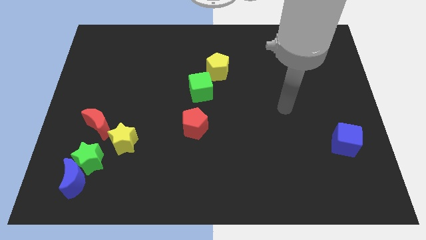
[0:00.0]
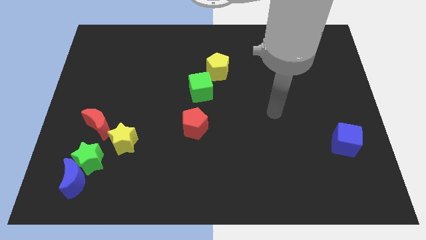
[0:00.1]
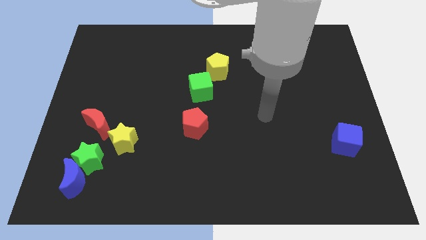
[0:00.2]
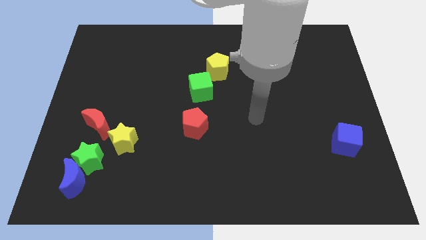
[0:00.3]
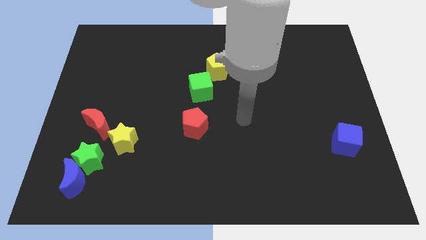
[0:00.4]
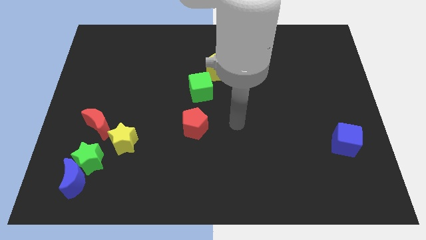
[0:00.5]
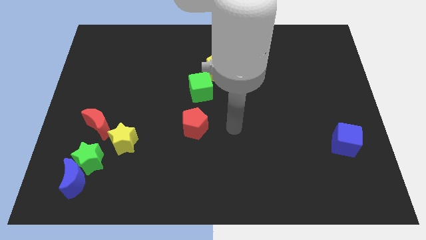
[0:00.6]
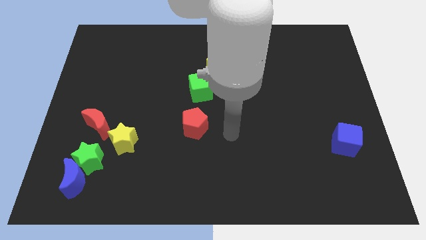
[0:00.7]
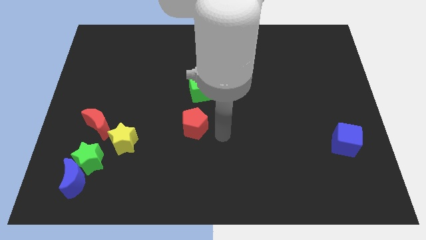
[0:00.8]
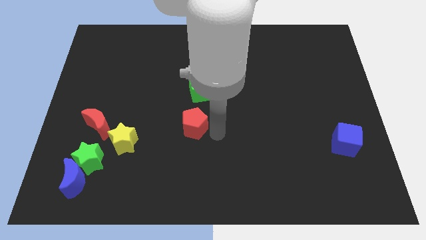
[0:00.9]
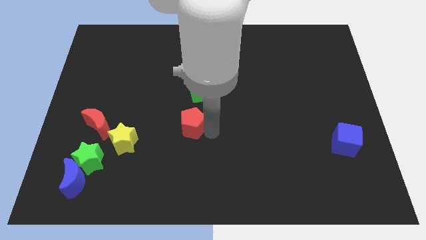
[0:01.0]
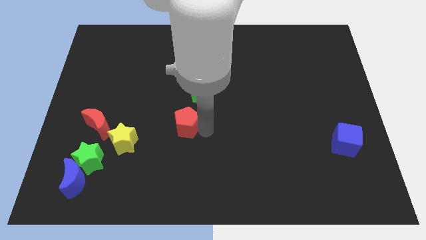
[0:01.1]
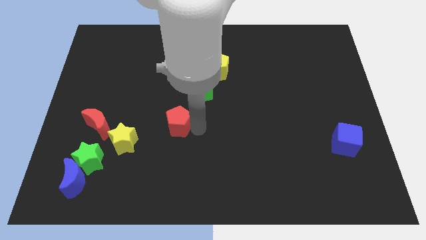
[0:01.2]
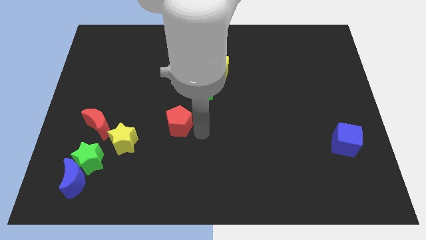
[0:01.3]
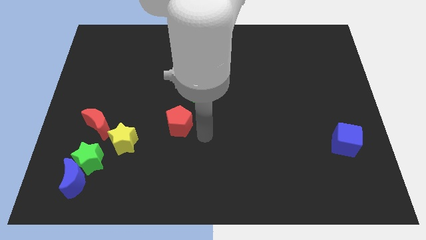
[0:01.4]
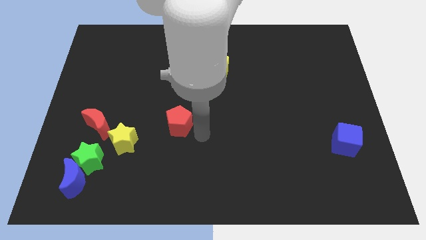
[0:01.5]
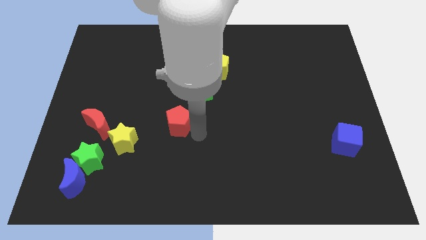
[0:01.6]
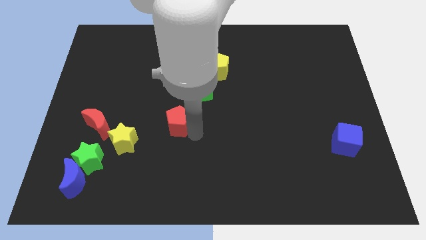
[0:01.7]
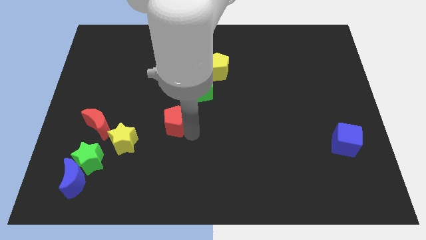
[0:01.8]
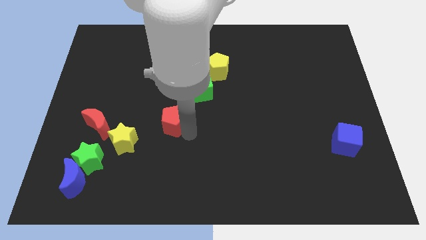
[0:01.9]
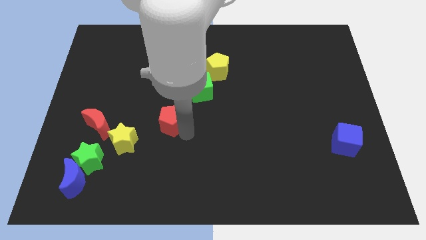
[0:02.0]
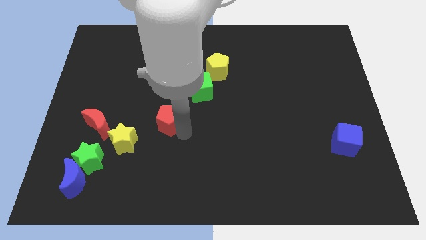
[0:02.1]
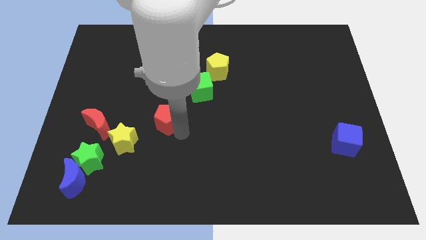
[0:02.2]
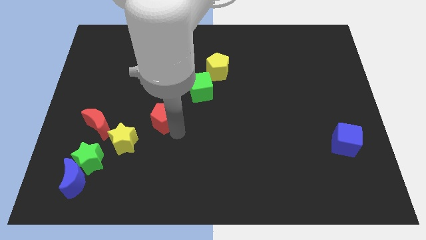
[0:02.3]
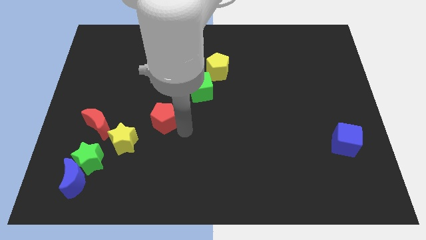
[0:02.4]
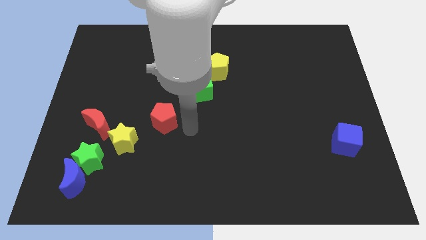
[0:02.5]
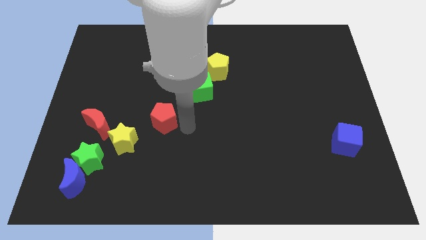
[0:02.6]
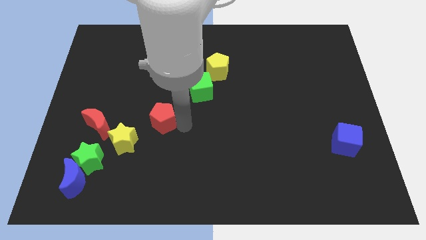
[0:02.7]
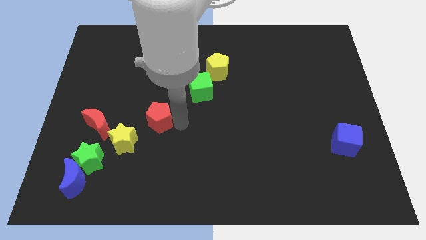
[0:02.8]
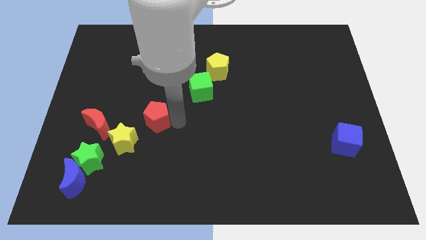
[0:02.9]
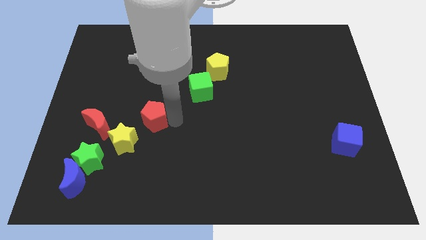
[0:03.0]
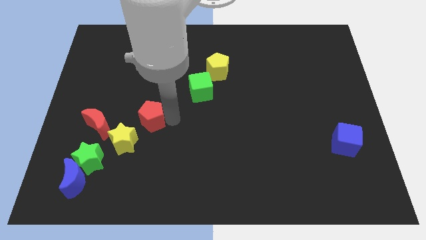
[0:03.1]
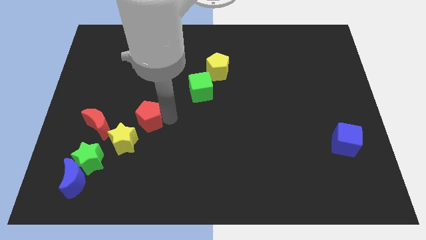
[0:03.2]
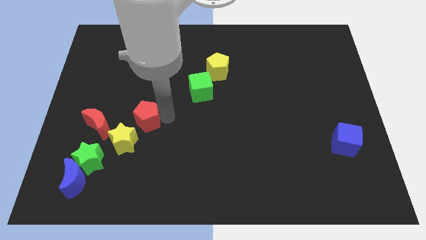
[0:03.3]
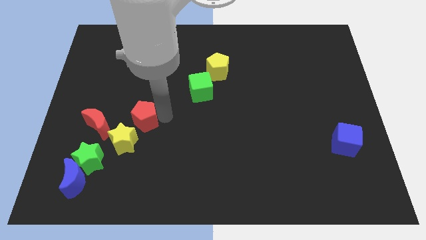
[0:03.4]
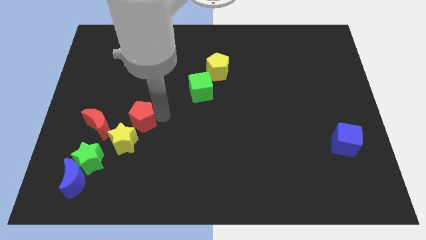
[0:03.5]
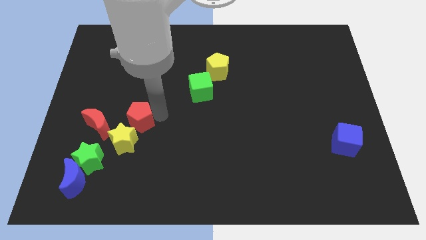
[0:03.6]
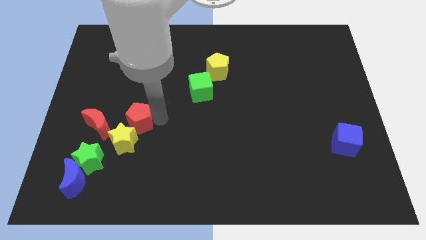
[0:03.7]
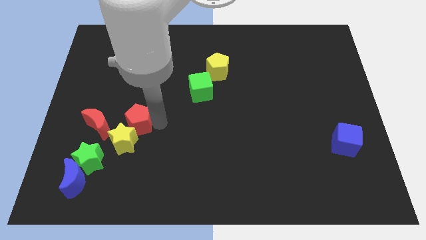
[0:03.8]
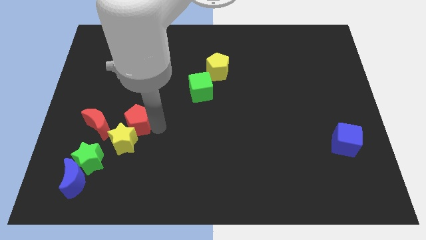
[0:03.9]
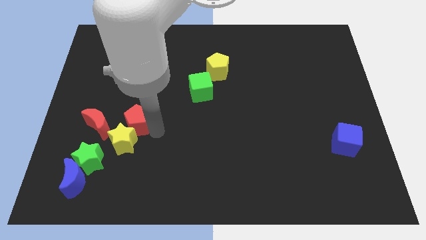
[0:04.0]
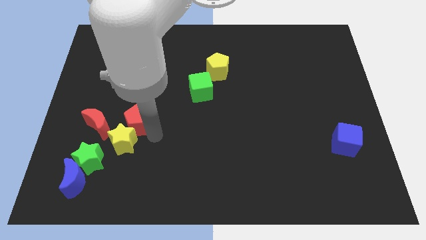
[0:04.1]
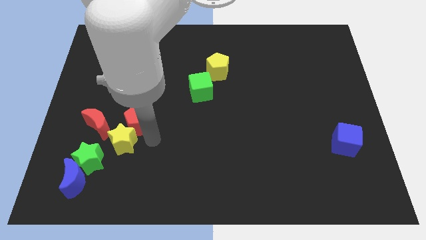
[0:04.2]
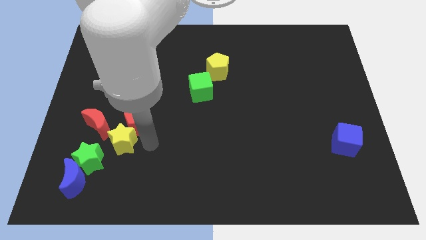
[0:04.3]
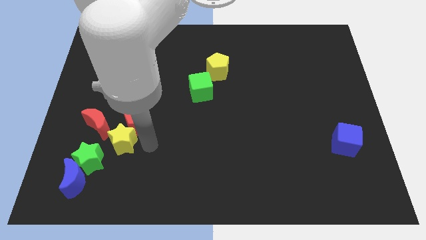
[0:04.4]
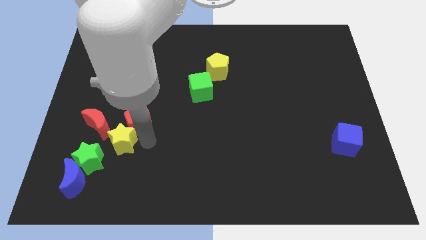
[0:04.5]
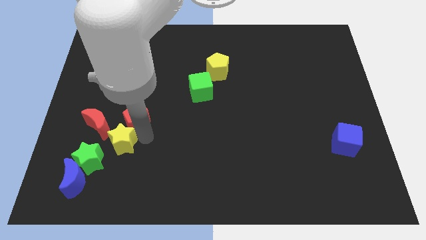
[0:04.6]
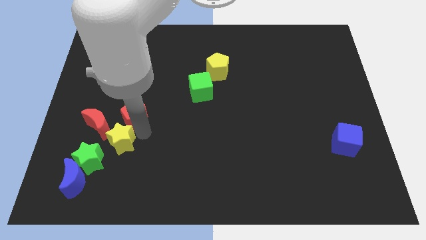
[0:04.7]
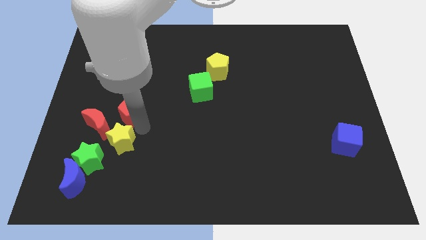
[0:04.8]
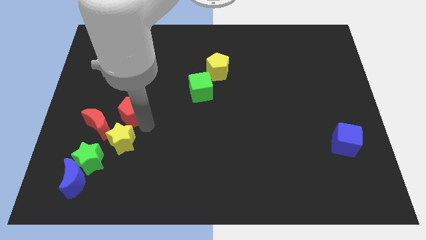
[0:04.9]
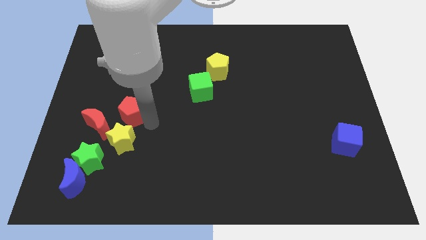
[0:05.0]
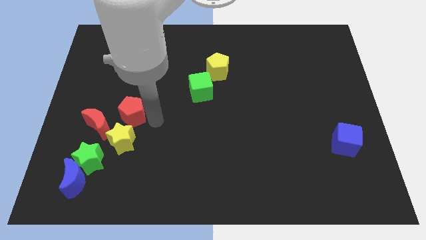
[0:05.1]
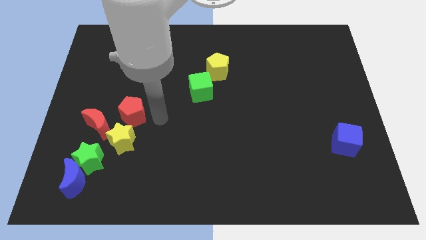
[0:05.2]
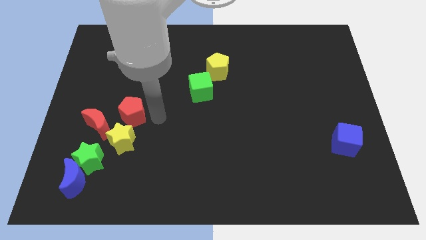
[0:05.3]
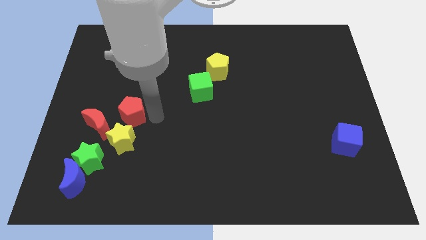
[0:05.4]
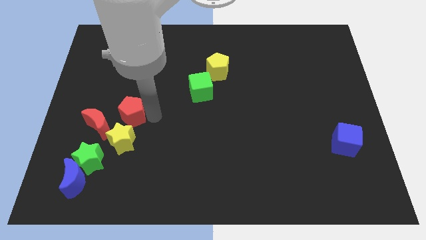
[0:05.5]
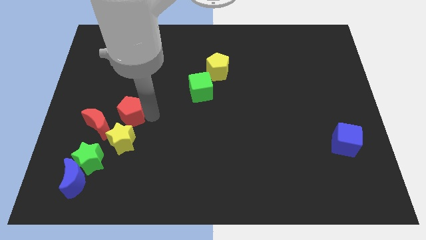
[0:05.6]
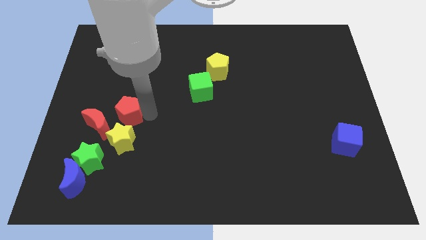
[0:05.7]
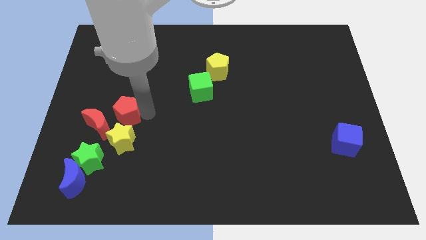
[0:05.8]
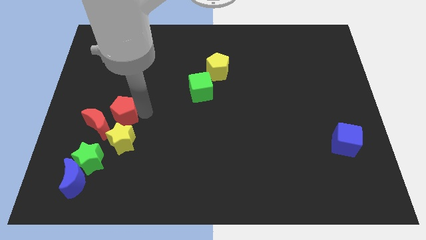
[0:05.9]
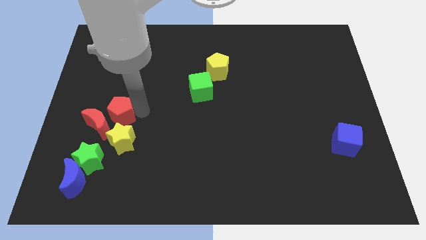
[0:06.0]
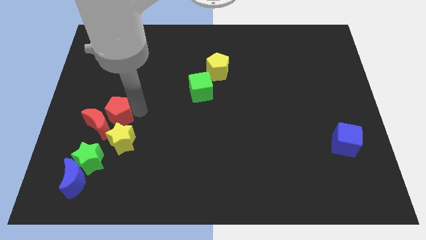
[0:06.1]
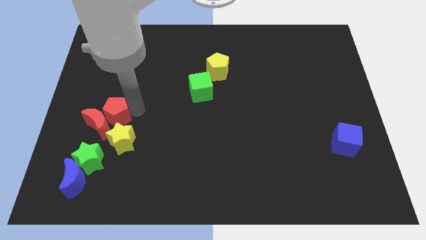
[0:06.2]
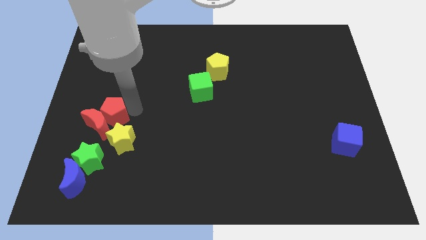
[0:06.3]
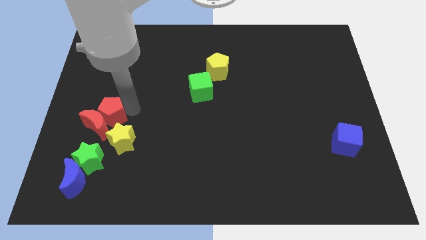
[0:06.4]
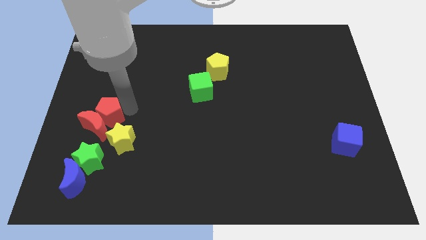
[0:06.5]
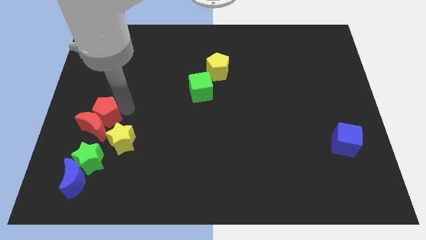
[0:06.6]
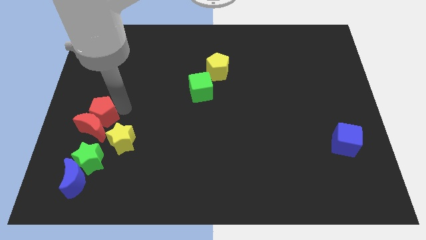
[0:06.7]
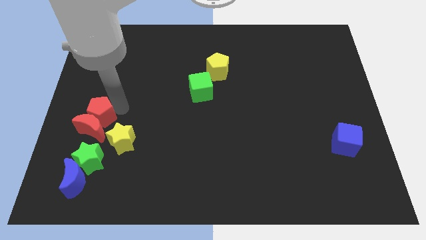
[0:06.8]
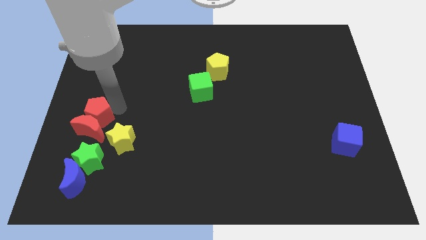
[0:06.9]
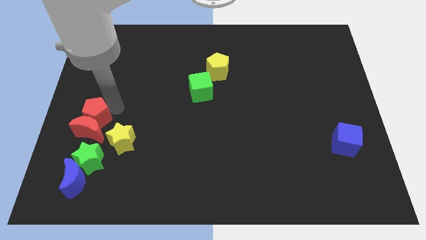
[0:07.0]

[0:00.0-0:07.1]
put the red pentagon to the top of the blue moon

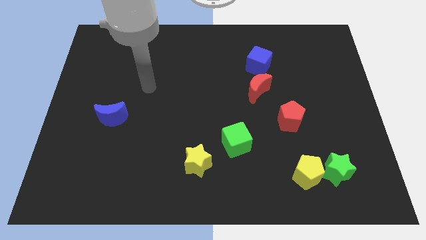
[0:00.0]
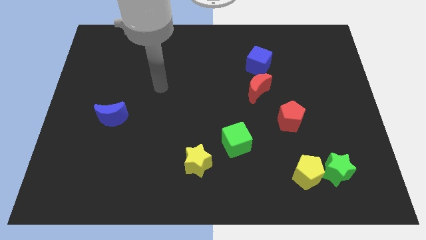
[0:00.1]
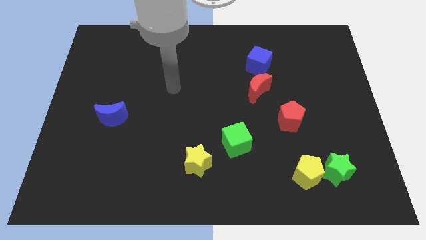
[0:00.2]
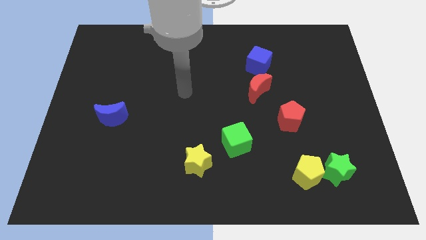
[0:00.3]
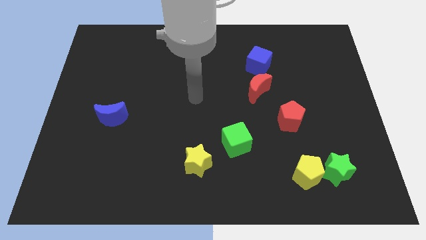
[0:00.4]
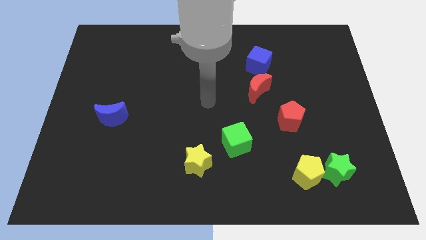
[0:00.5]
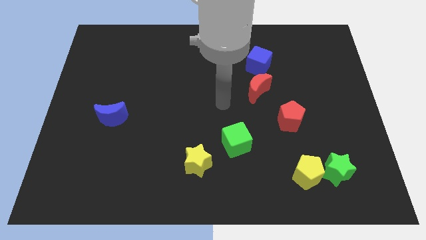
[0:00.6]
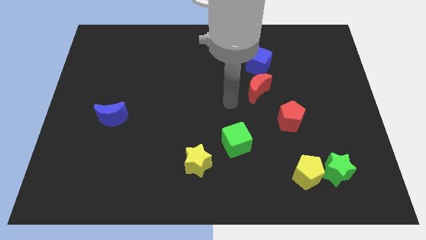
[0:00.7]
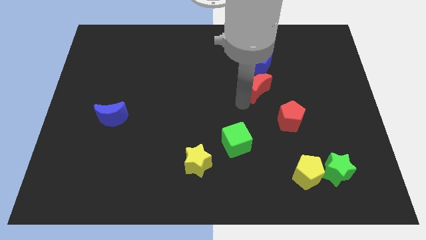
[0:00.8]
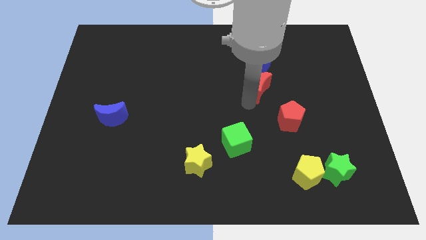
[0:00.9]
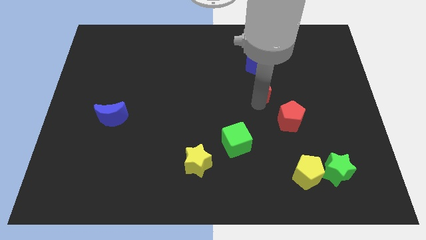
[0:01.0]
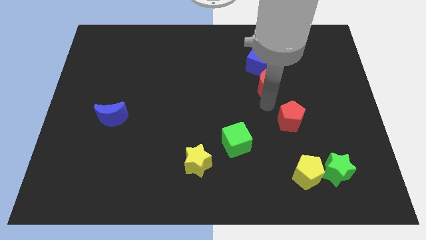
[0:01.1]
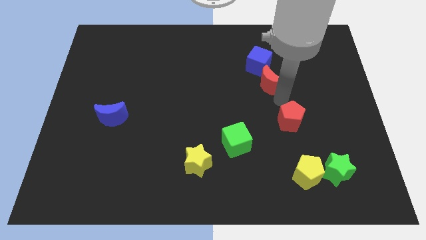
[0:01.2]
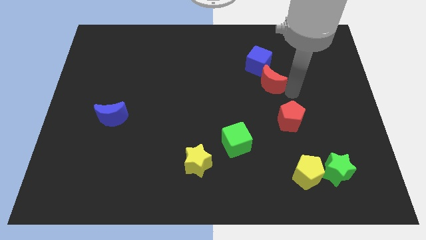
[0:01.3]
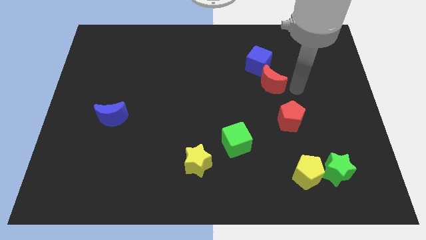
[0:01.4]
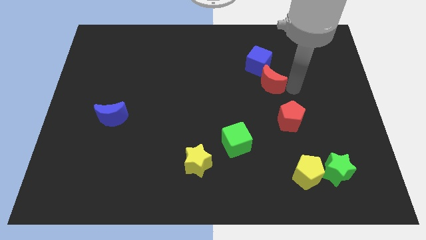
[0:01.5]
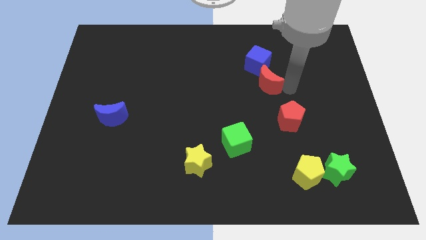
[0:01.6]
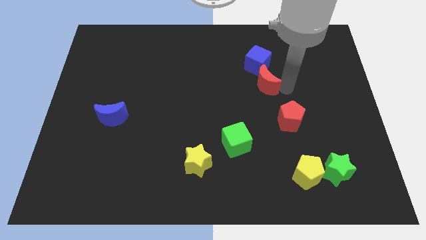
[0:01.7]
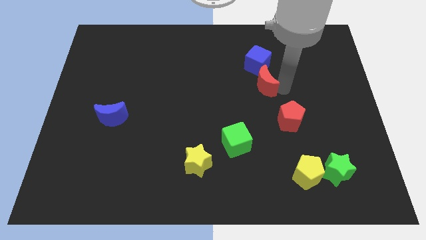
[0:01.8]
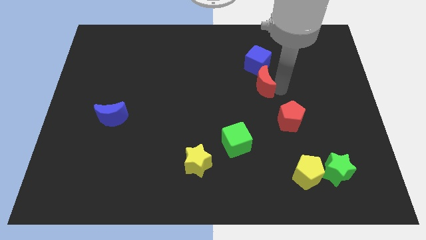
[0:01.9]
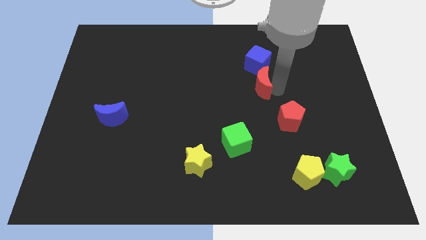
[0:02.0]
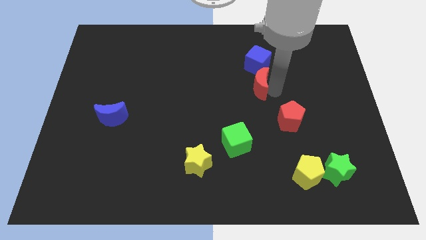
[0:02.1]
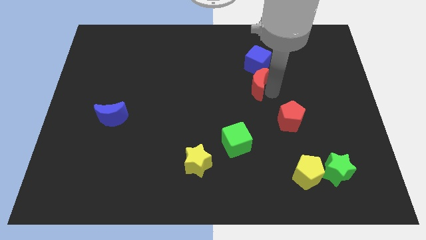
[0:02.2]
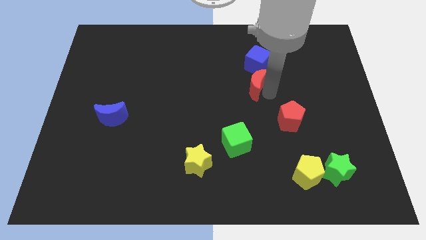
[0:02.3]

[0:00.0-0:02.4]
put the red moon to the bottom left of the blue cube
